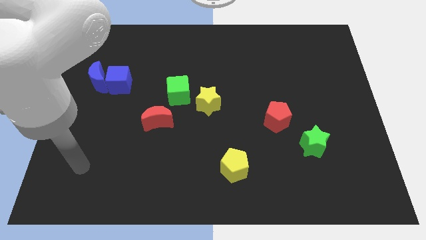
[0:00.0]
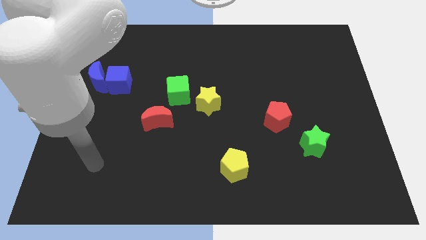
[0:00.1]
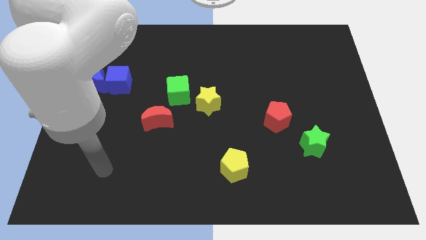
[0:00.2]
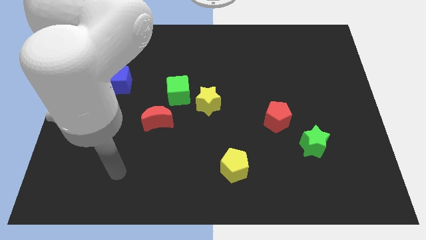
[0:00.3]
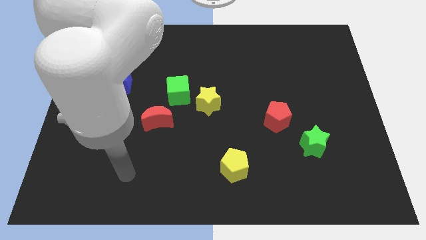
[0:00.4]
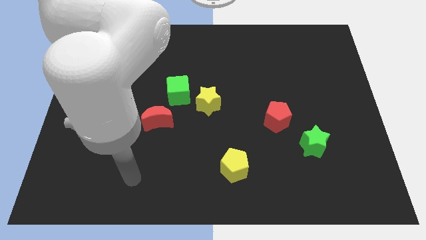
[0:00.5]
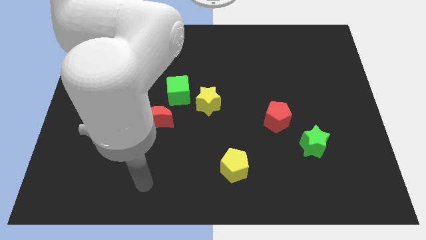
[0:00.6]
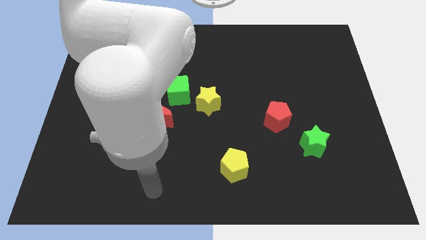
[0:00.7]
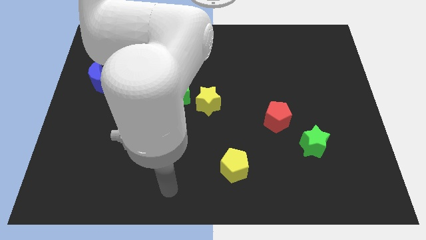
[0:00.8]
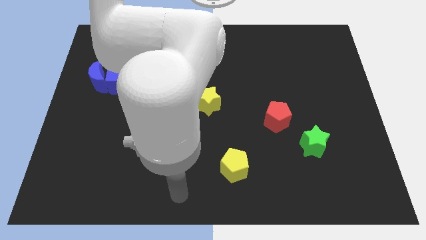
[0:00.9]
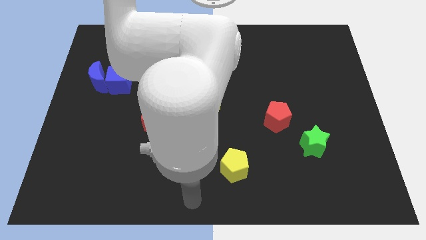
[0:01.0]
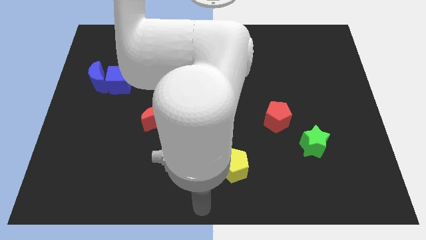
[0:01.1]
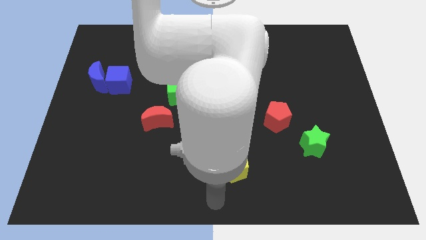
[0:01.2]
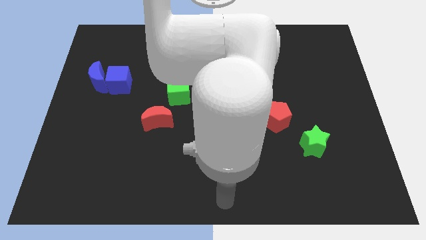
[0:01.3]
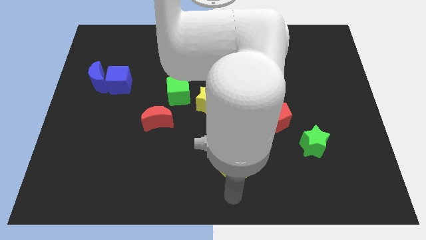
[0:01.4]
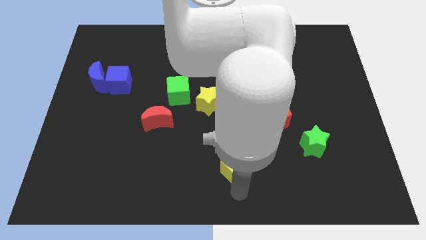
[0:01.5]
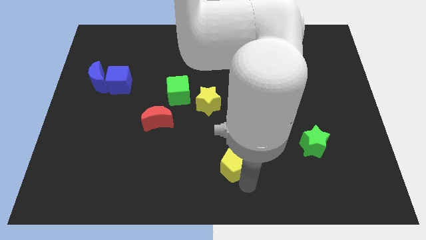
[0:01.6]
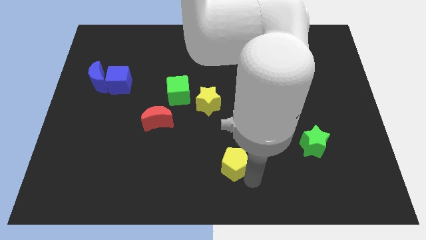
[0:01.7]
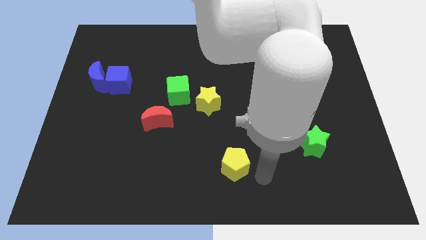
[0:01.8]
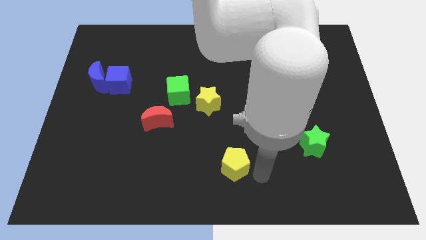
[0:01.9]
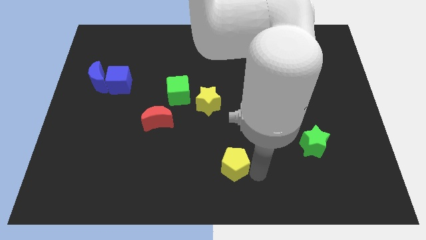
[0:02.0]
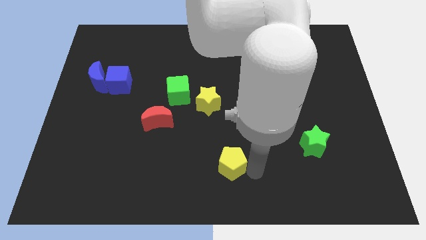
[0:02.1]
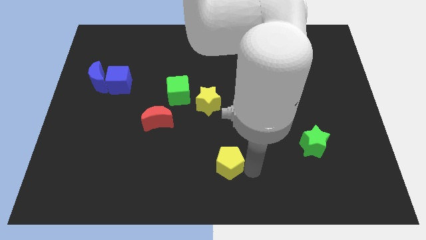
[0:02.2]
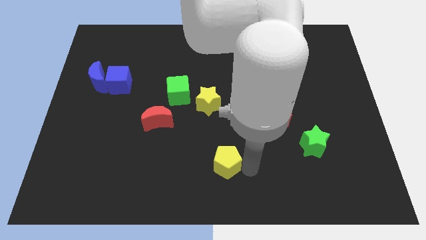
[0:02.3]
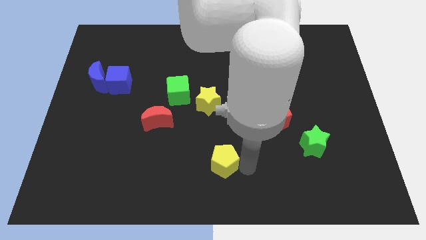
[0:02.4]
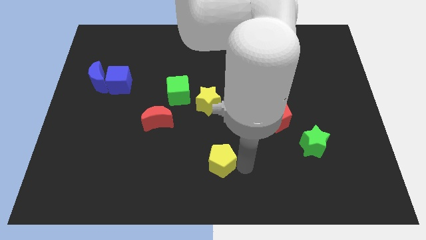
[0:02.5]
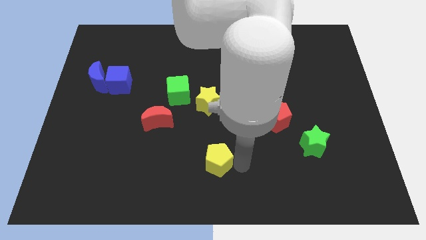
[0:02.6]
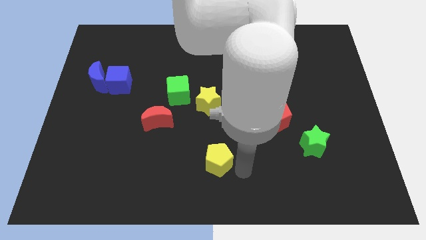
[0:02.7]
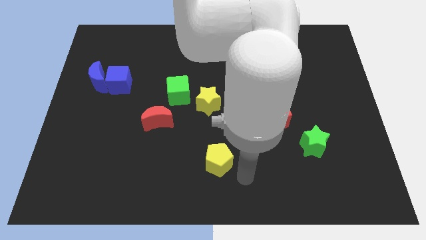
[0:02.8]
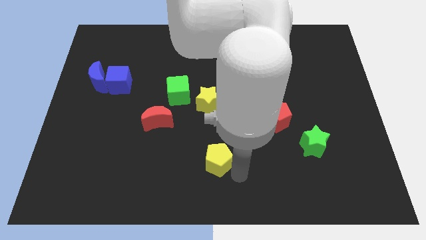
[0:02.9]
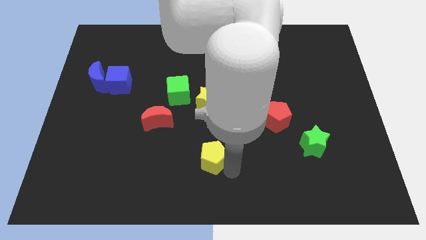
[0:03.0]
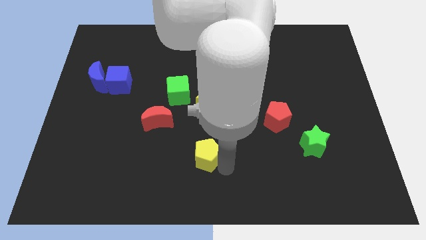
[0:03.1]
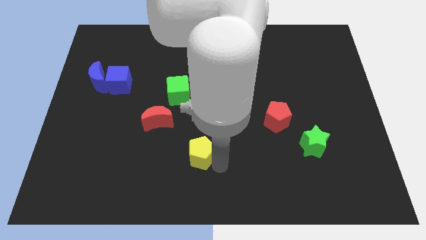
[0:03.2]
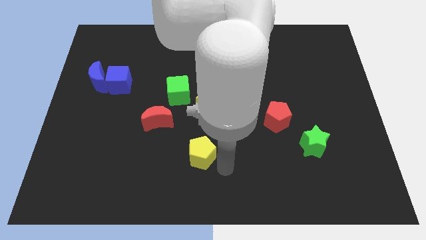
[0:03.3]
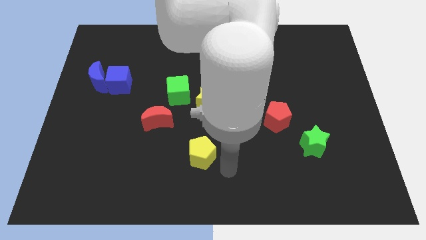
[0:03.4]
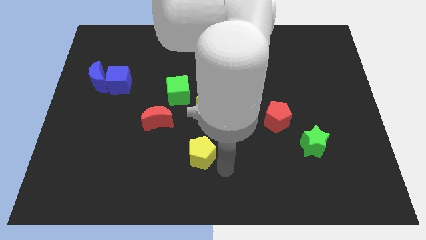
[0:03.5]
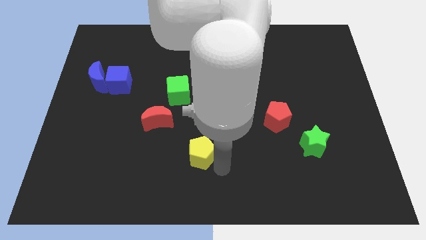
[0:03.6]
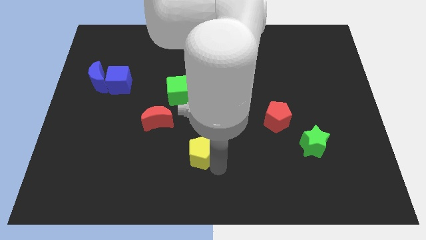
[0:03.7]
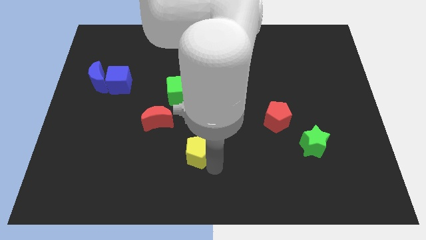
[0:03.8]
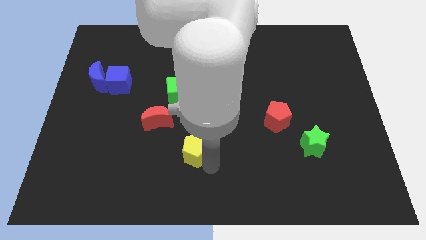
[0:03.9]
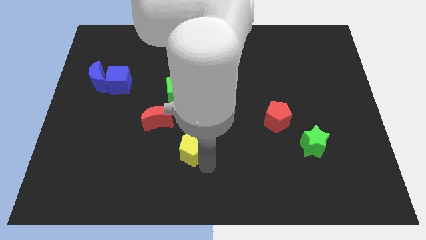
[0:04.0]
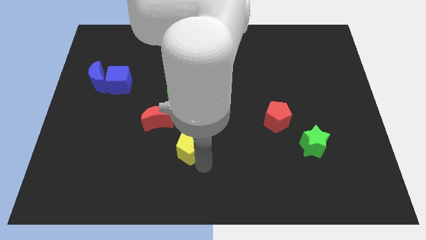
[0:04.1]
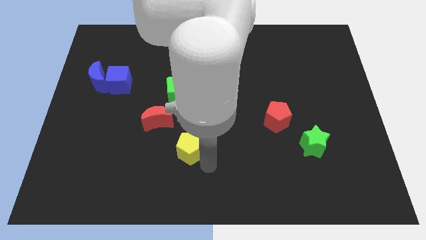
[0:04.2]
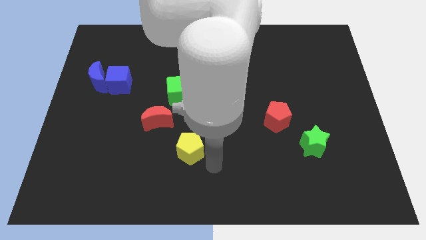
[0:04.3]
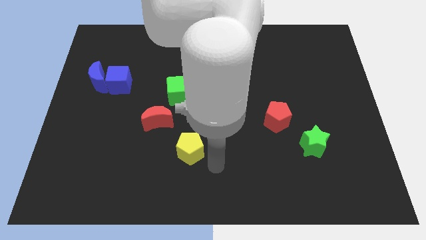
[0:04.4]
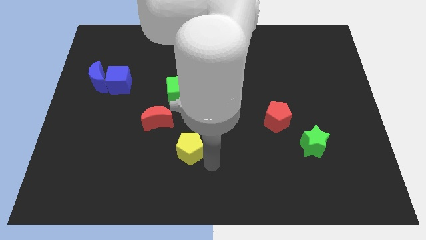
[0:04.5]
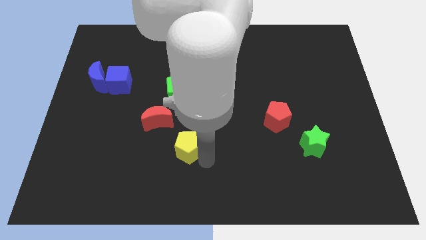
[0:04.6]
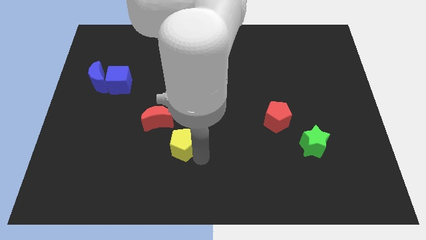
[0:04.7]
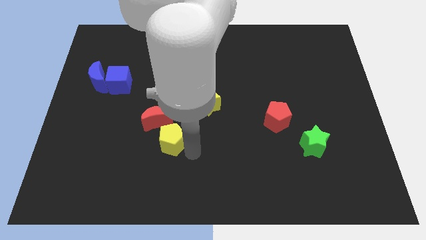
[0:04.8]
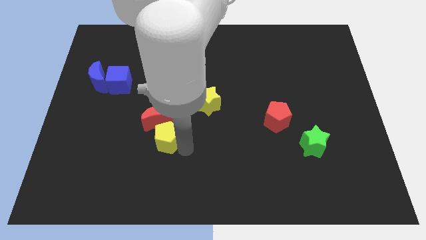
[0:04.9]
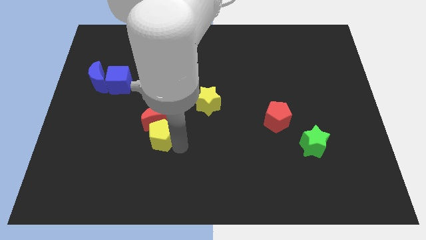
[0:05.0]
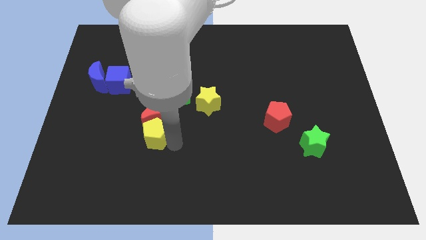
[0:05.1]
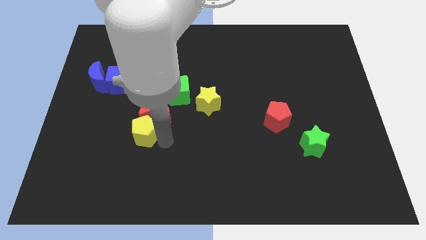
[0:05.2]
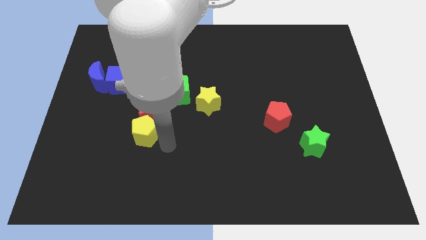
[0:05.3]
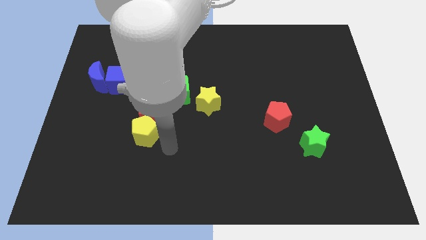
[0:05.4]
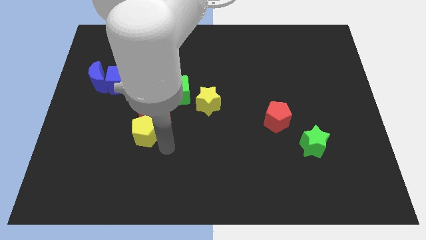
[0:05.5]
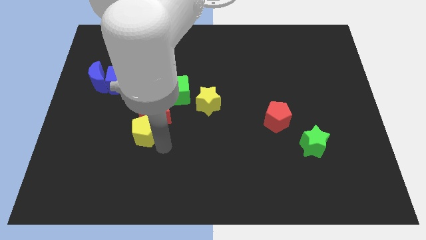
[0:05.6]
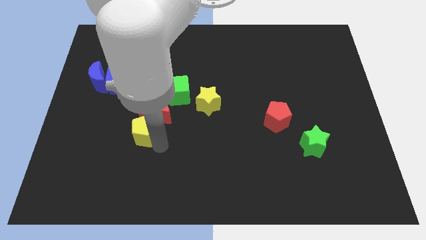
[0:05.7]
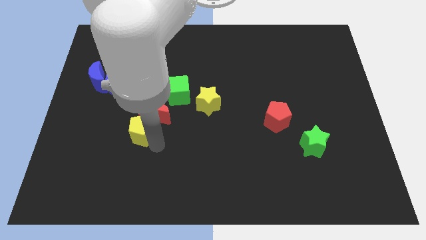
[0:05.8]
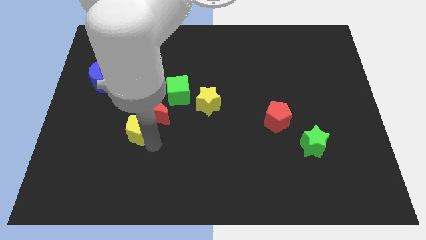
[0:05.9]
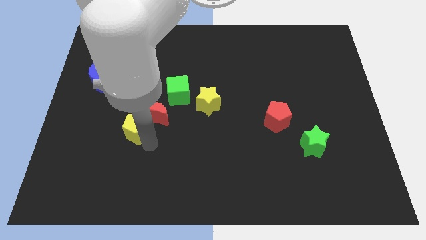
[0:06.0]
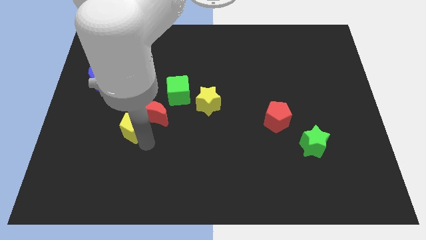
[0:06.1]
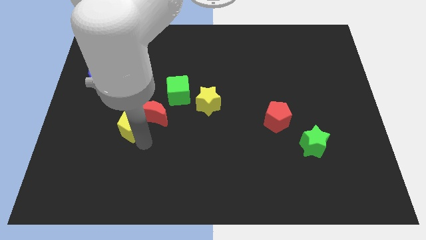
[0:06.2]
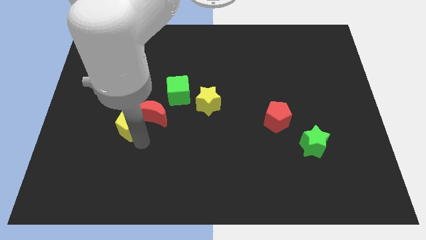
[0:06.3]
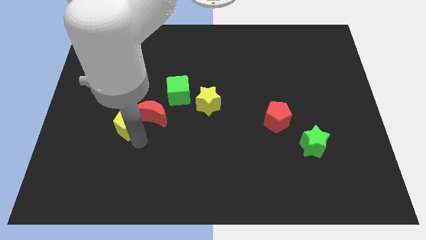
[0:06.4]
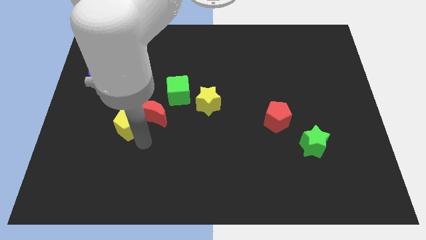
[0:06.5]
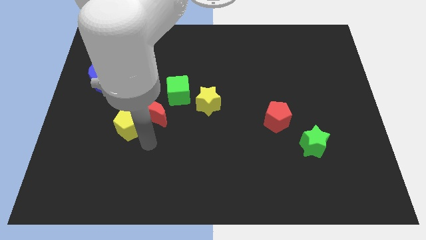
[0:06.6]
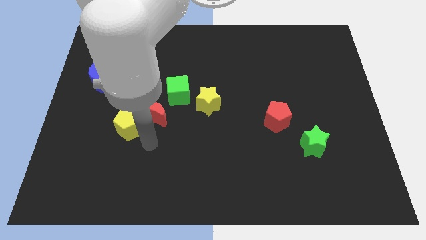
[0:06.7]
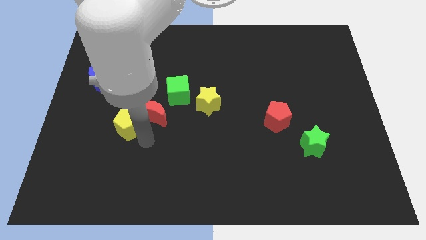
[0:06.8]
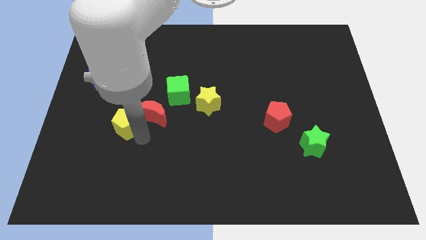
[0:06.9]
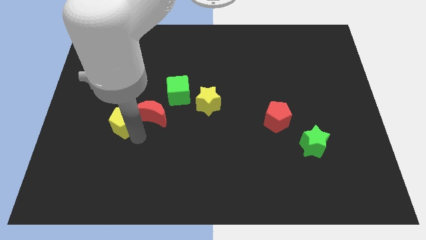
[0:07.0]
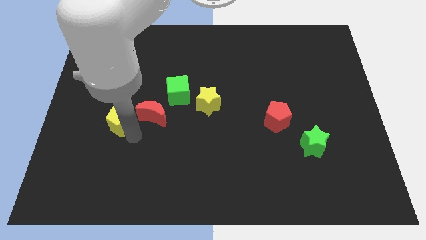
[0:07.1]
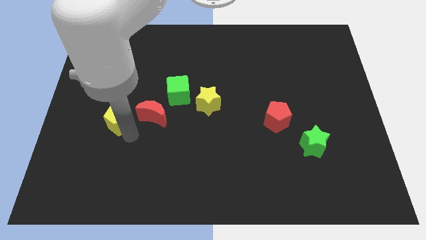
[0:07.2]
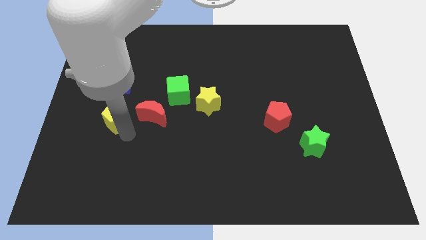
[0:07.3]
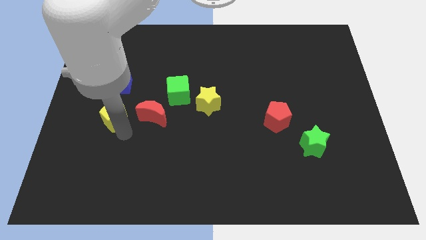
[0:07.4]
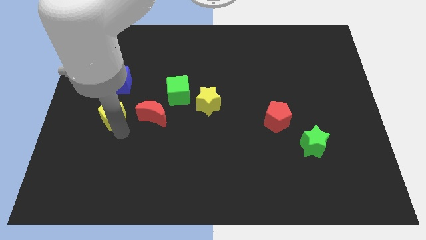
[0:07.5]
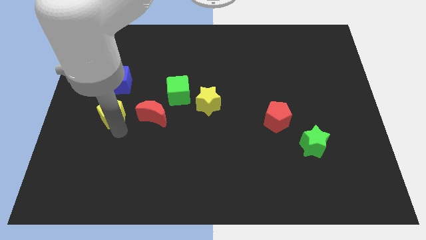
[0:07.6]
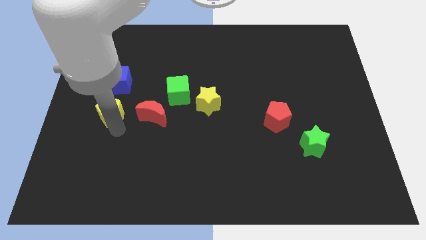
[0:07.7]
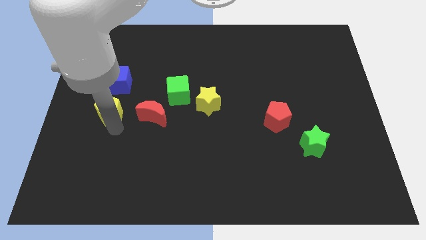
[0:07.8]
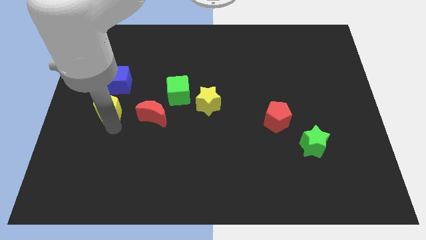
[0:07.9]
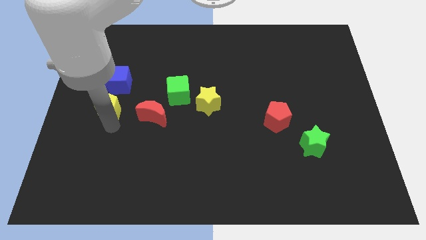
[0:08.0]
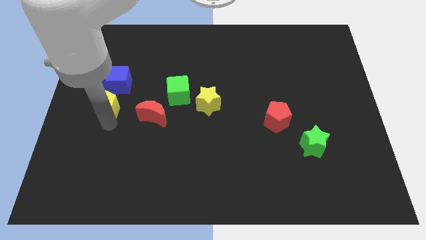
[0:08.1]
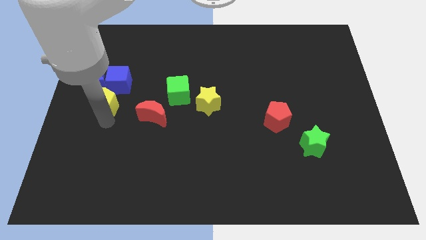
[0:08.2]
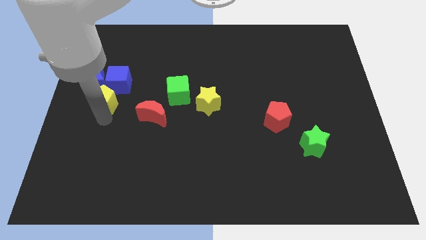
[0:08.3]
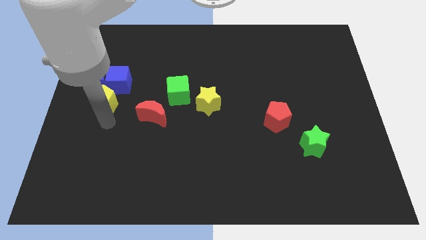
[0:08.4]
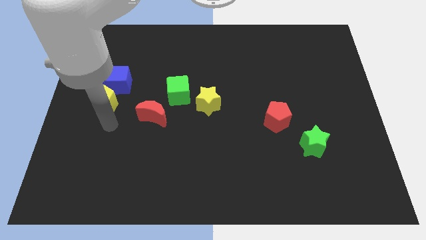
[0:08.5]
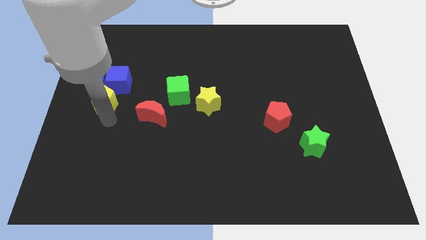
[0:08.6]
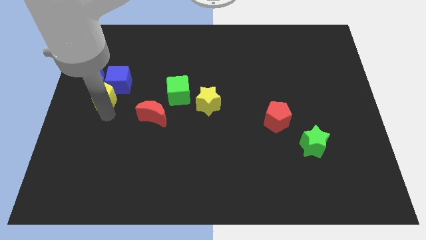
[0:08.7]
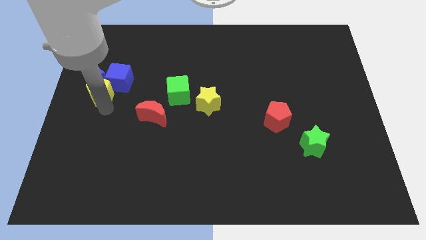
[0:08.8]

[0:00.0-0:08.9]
put the yellow pentagon towards the blue moon
